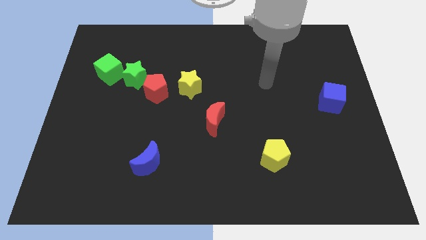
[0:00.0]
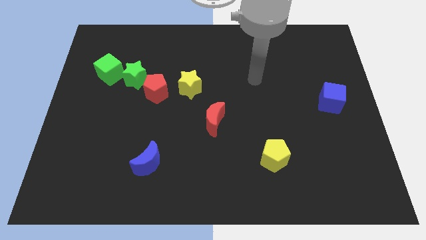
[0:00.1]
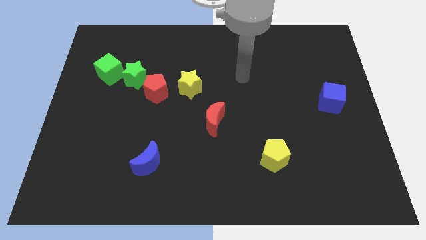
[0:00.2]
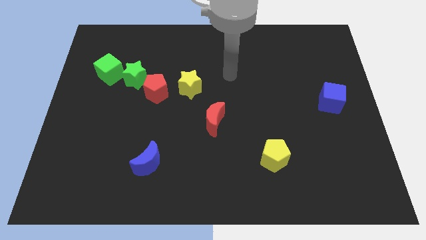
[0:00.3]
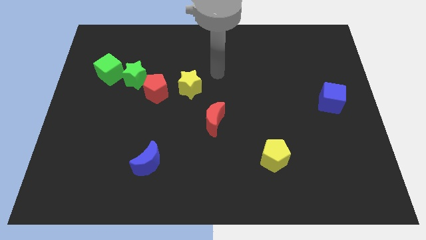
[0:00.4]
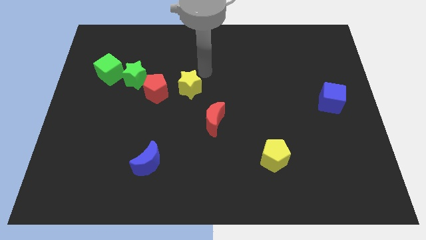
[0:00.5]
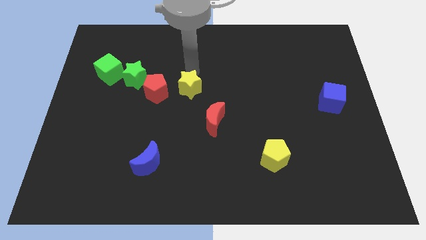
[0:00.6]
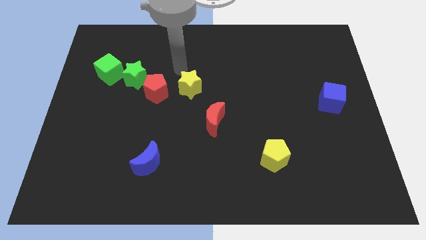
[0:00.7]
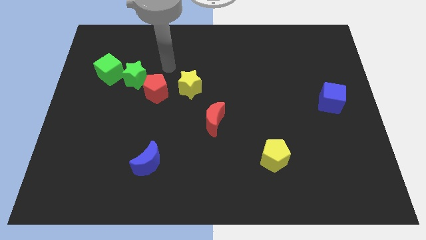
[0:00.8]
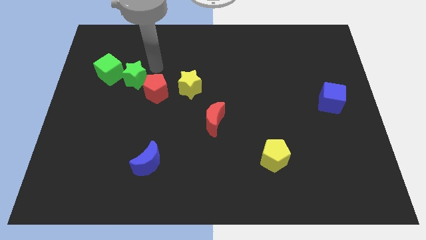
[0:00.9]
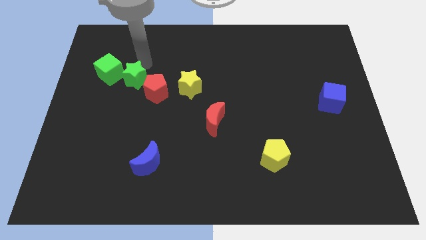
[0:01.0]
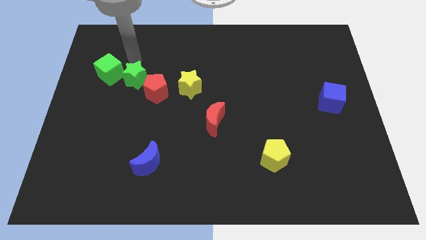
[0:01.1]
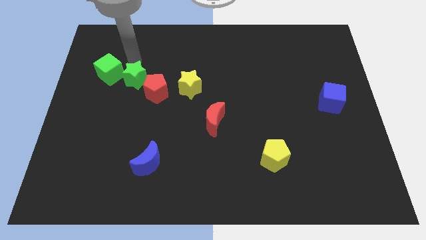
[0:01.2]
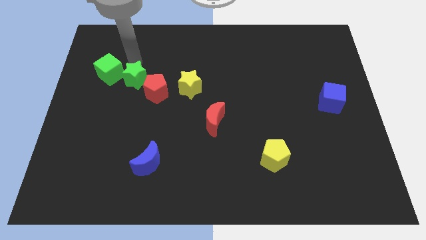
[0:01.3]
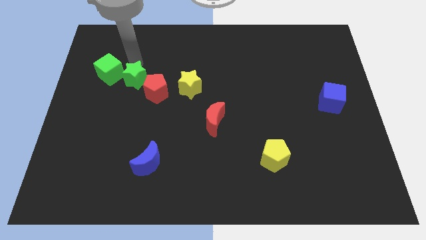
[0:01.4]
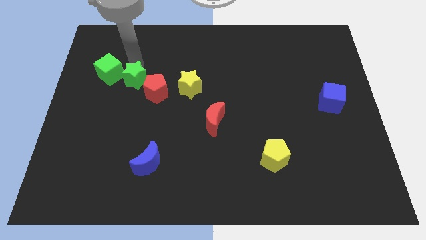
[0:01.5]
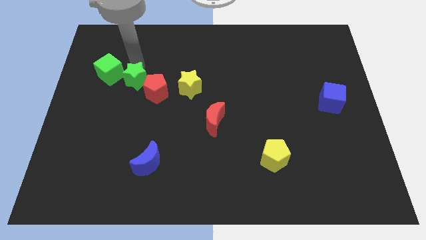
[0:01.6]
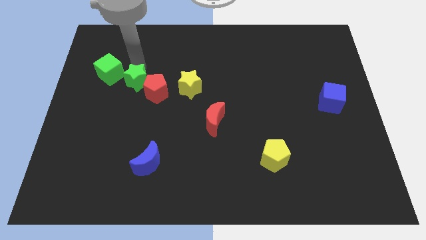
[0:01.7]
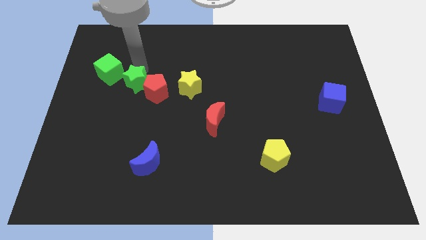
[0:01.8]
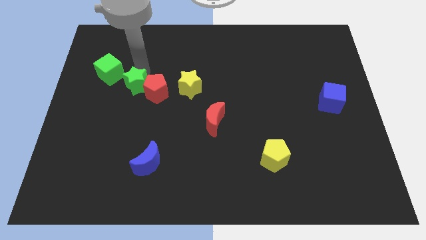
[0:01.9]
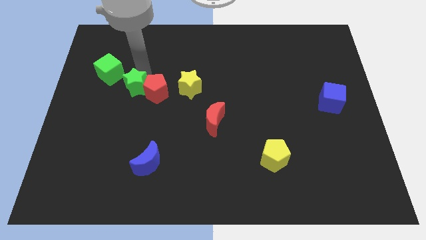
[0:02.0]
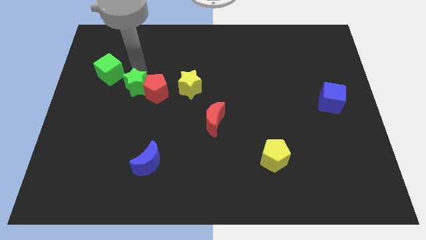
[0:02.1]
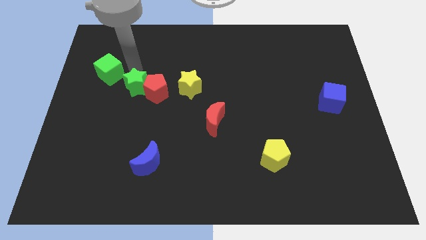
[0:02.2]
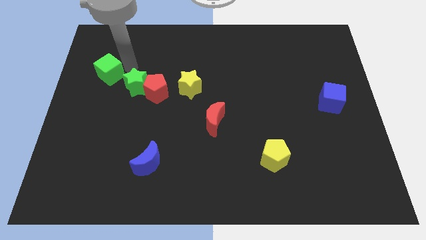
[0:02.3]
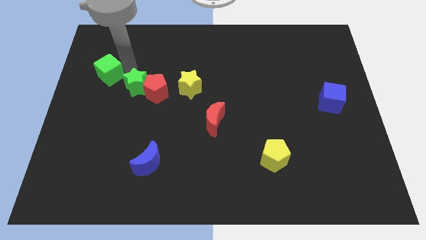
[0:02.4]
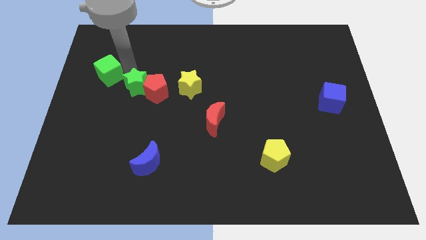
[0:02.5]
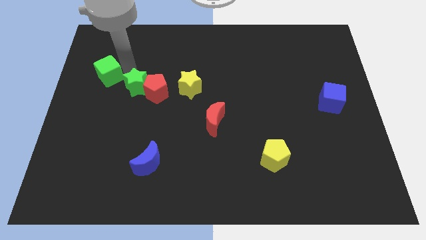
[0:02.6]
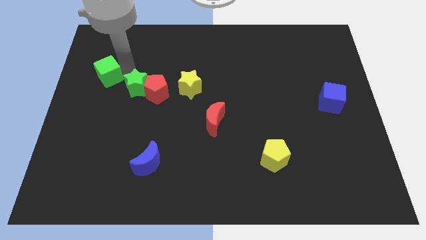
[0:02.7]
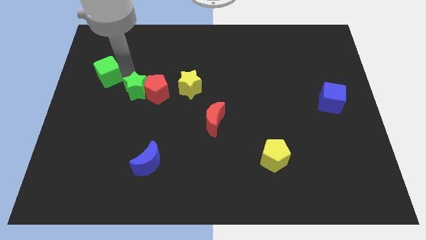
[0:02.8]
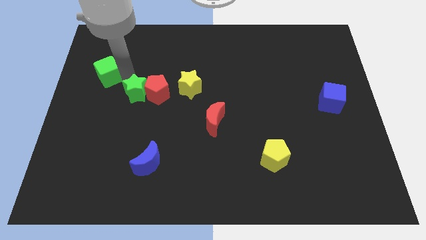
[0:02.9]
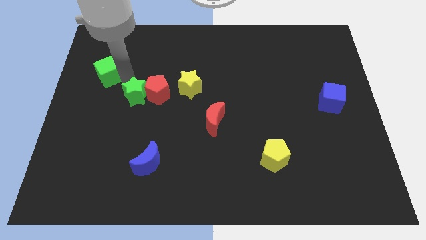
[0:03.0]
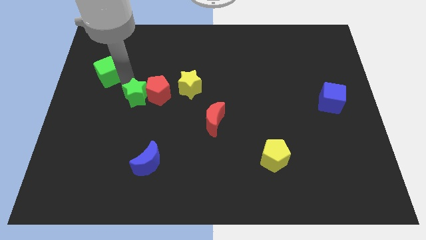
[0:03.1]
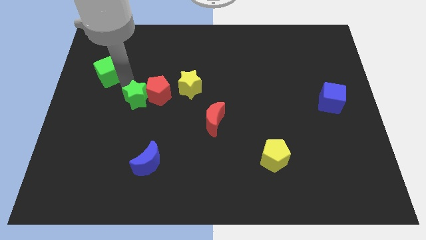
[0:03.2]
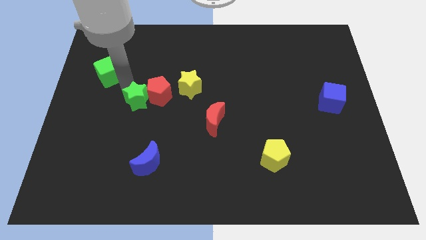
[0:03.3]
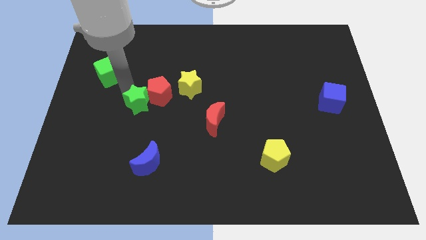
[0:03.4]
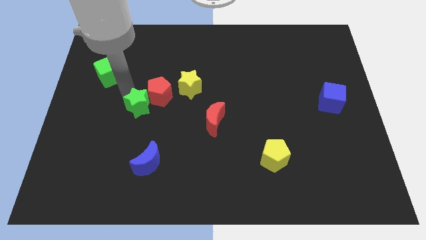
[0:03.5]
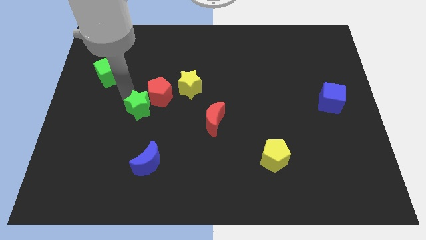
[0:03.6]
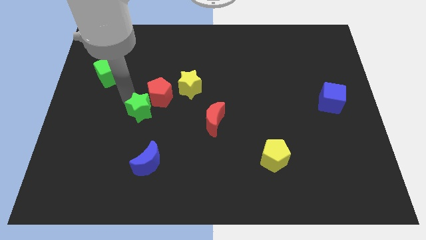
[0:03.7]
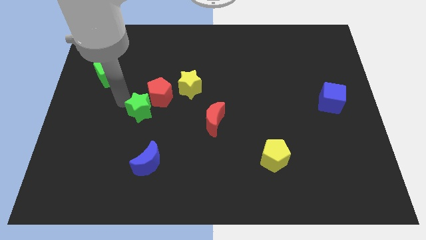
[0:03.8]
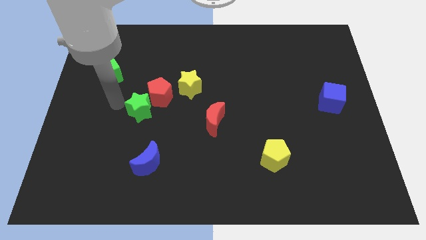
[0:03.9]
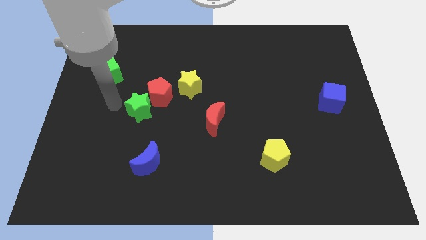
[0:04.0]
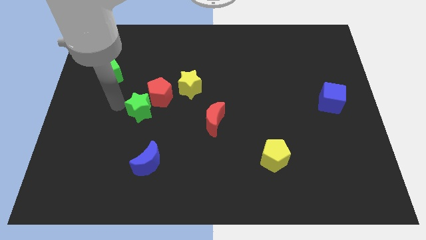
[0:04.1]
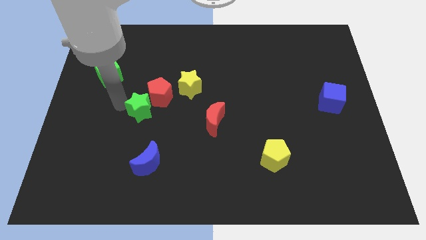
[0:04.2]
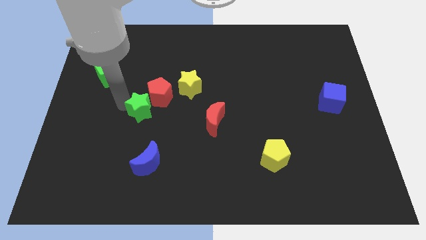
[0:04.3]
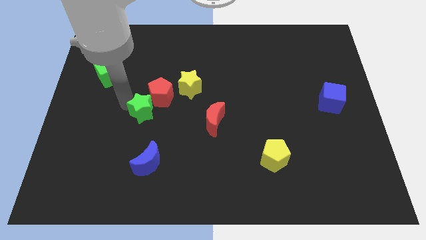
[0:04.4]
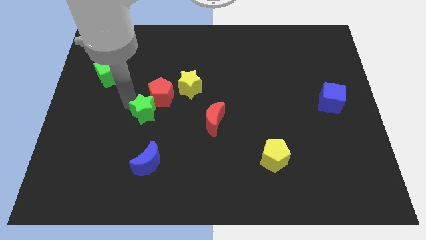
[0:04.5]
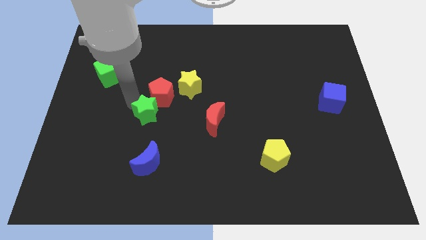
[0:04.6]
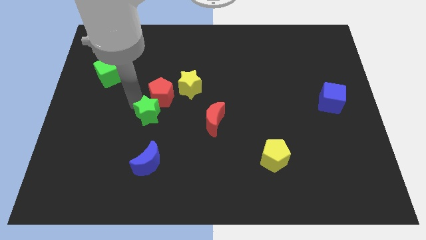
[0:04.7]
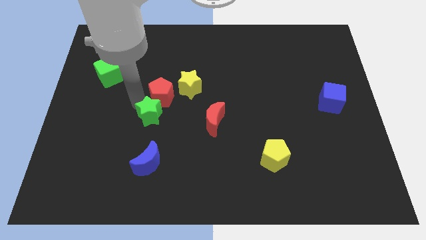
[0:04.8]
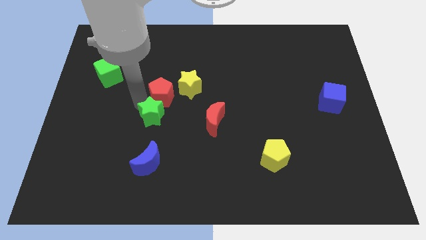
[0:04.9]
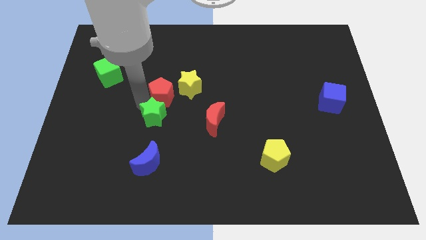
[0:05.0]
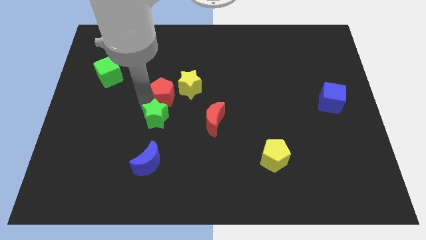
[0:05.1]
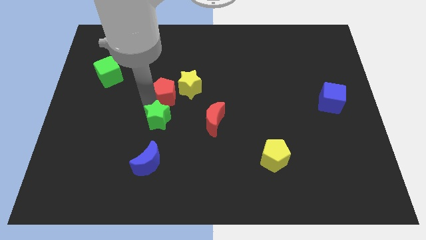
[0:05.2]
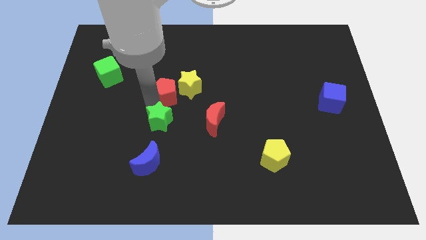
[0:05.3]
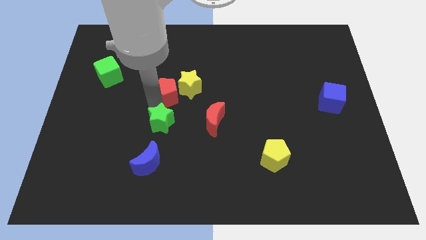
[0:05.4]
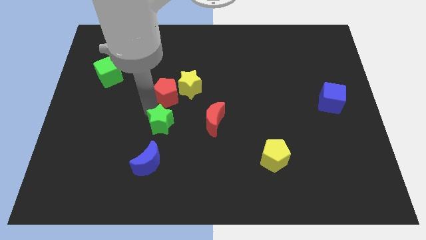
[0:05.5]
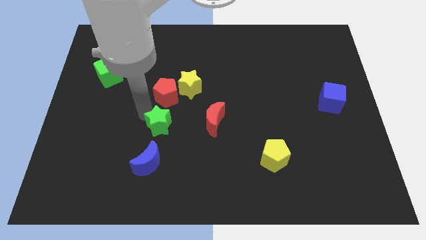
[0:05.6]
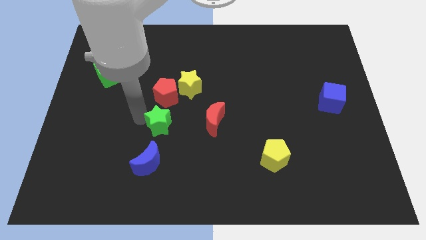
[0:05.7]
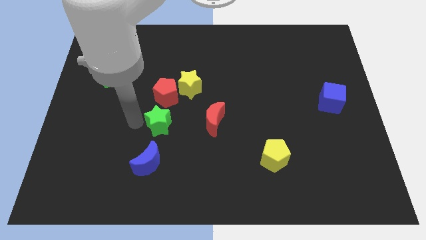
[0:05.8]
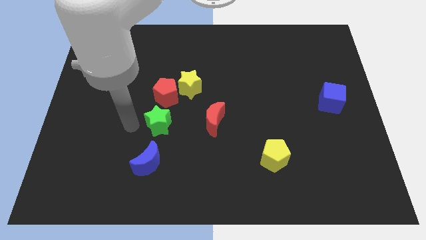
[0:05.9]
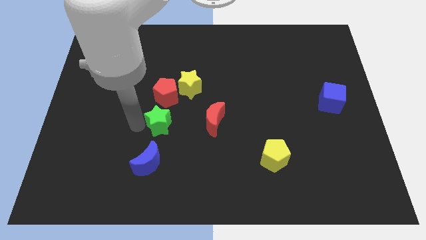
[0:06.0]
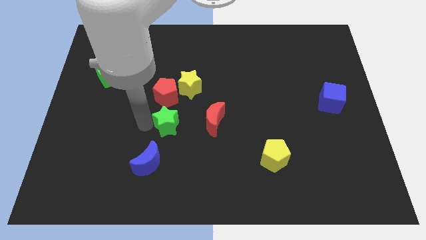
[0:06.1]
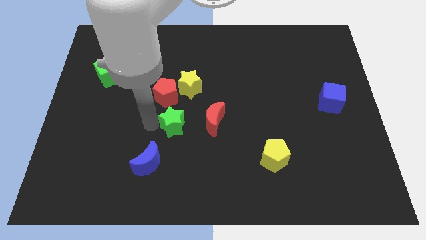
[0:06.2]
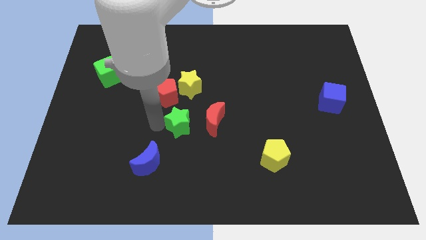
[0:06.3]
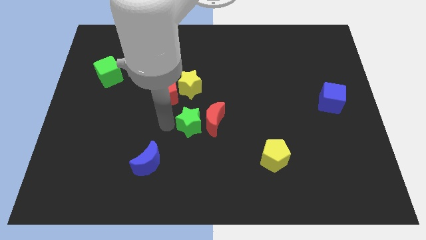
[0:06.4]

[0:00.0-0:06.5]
put the green star to the red moon
